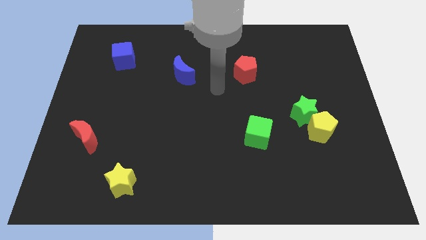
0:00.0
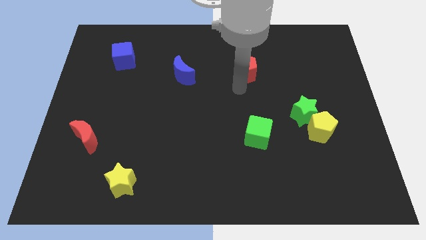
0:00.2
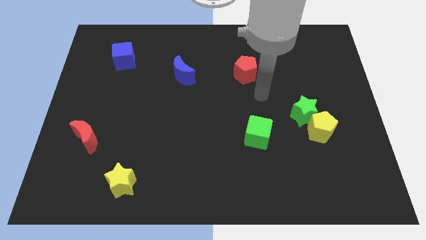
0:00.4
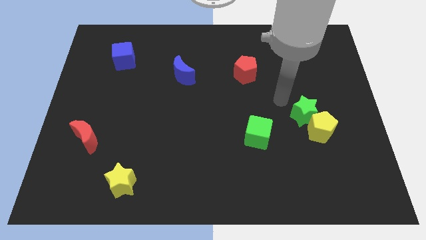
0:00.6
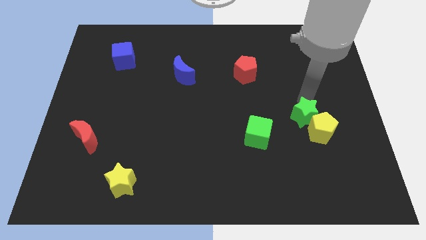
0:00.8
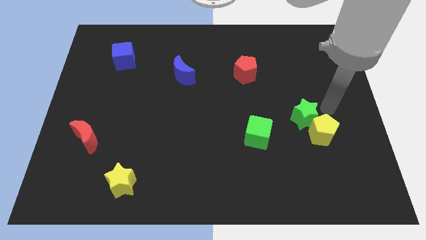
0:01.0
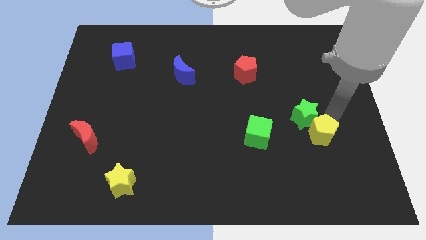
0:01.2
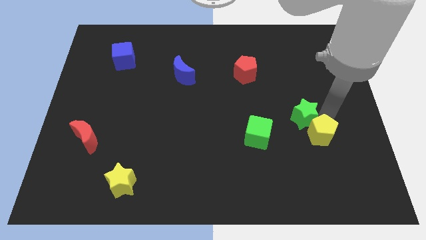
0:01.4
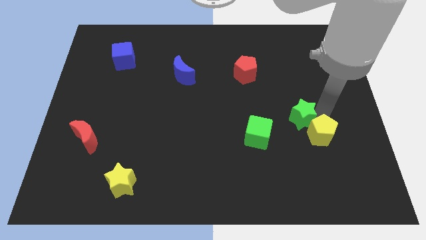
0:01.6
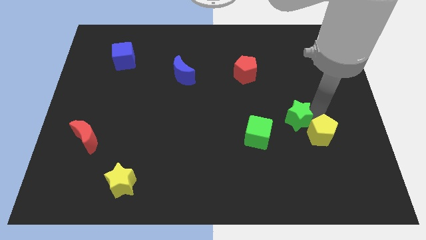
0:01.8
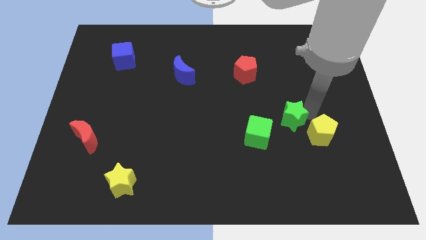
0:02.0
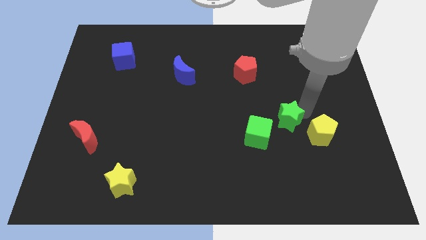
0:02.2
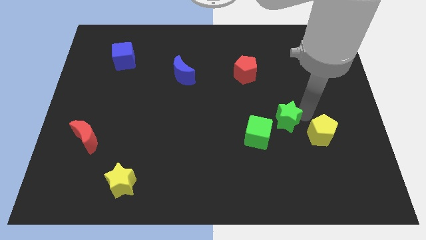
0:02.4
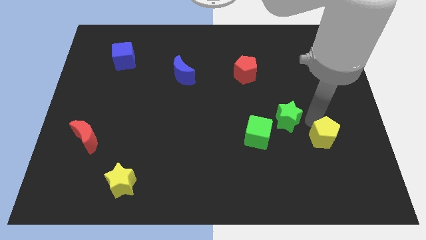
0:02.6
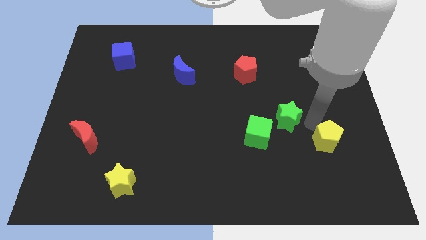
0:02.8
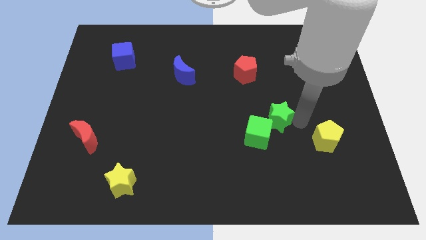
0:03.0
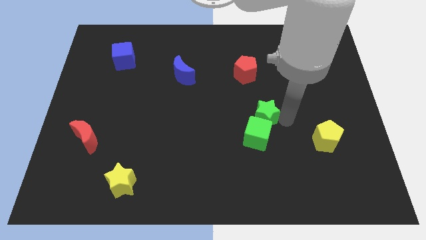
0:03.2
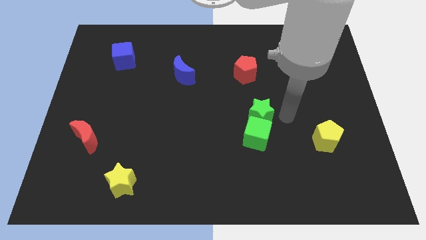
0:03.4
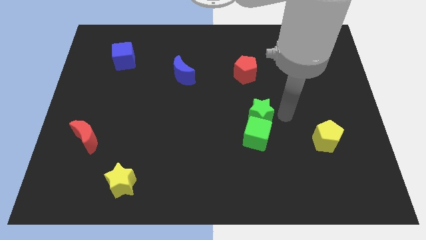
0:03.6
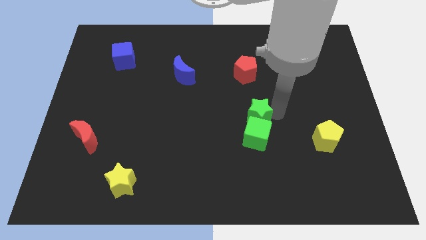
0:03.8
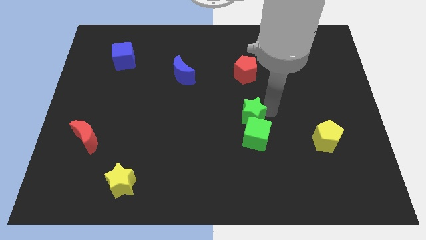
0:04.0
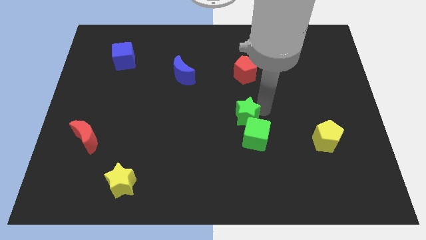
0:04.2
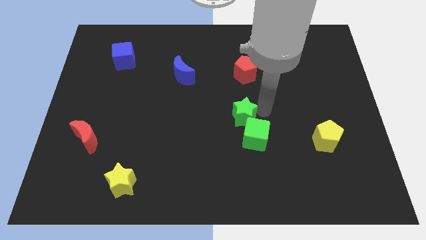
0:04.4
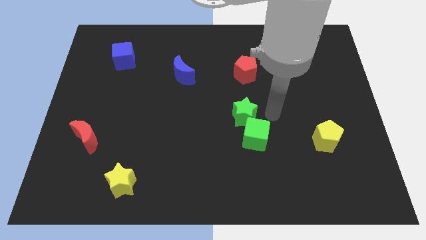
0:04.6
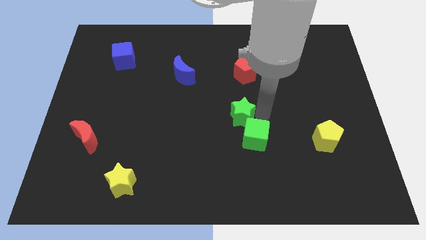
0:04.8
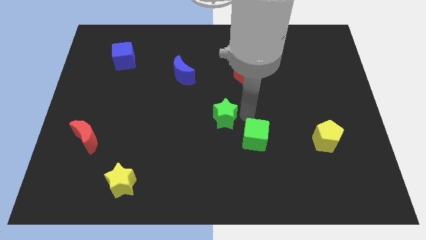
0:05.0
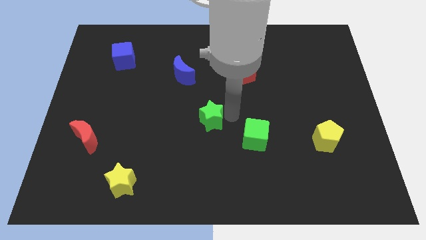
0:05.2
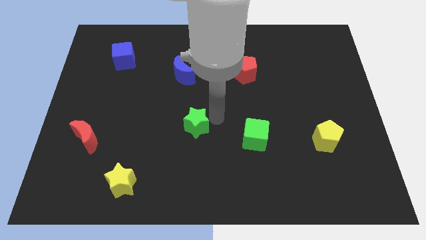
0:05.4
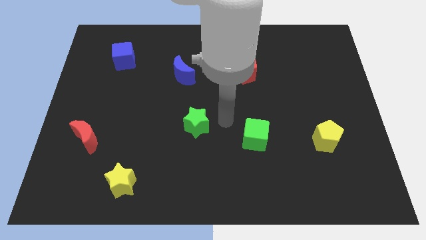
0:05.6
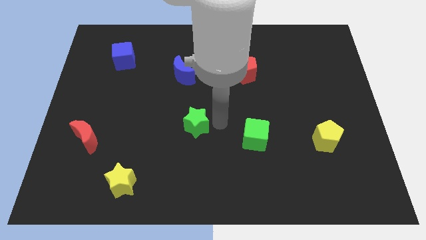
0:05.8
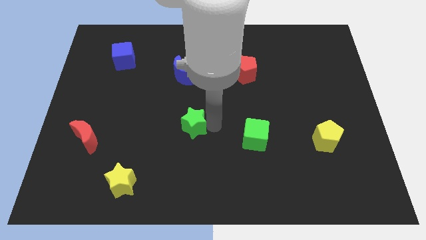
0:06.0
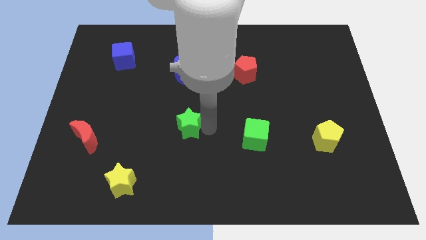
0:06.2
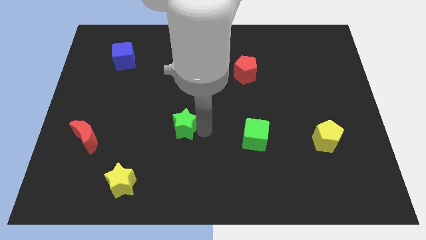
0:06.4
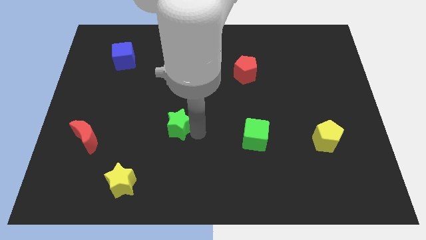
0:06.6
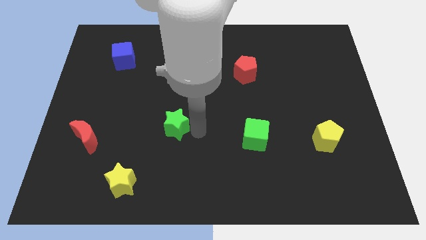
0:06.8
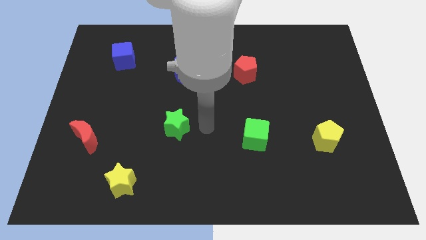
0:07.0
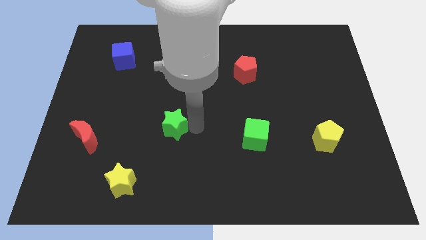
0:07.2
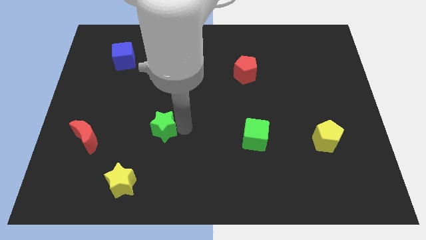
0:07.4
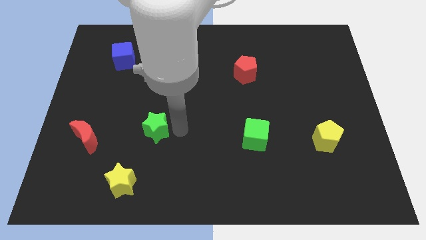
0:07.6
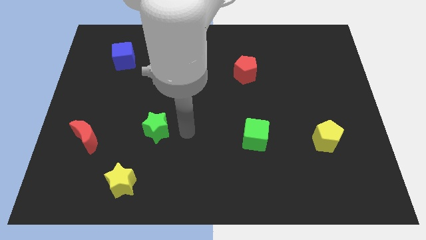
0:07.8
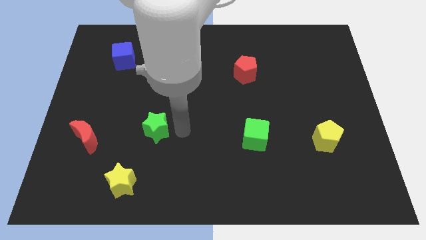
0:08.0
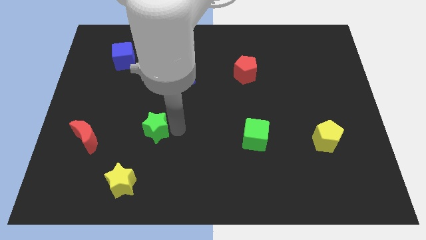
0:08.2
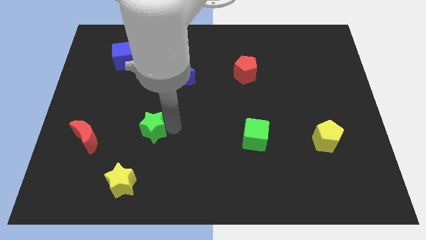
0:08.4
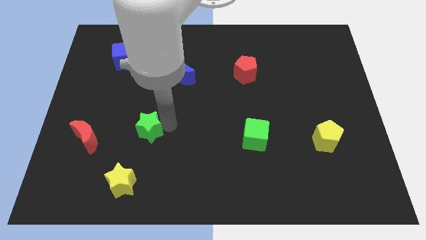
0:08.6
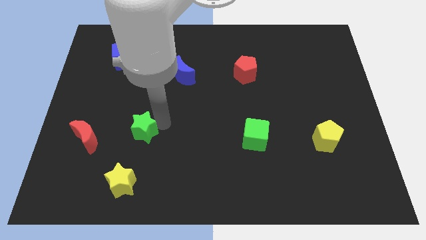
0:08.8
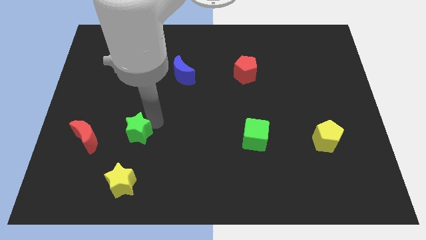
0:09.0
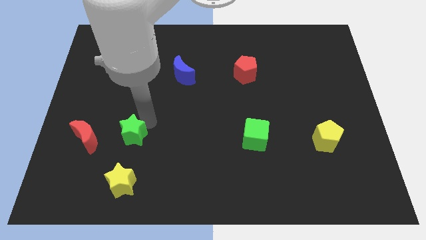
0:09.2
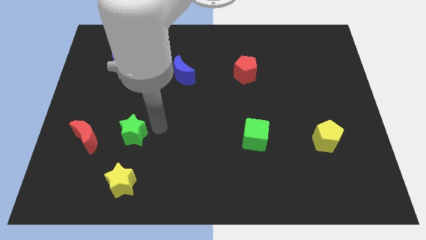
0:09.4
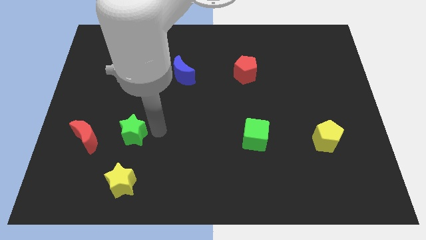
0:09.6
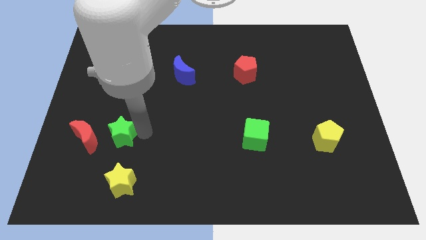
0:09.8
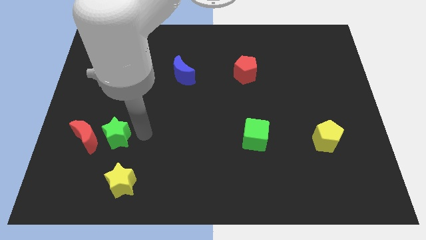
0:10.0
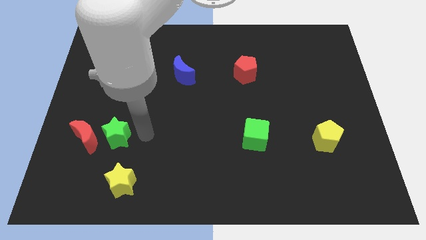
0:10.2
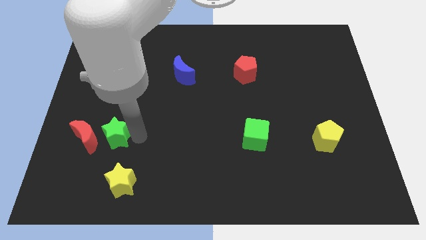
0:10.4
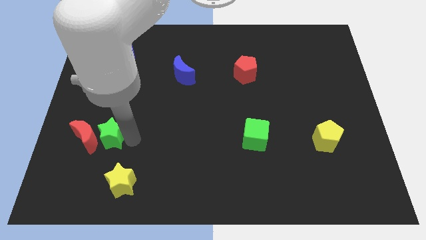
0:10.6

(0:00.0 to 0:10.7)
slide the green star towards the red moon

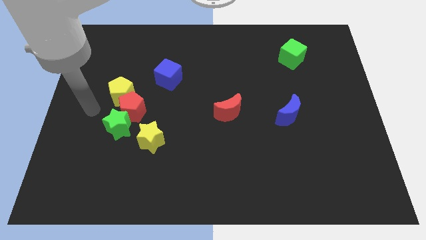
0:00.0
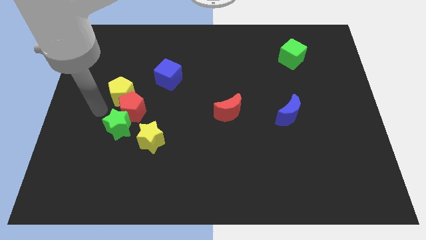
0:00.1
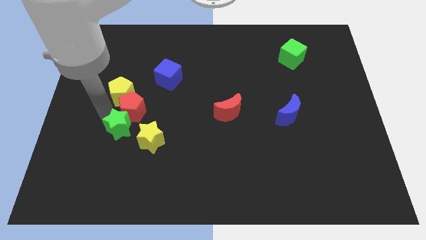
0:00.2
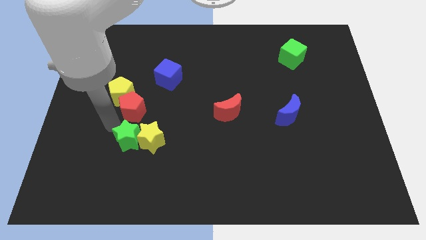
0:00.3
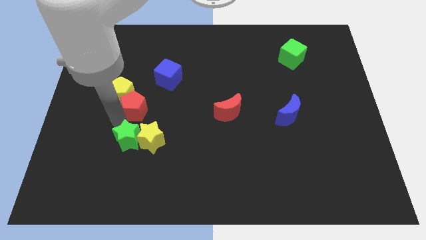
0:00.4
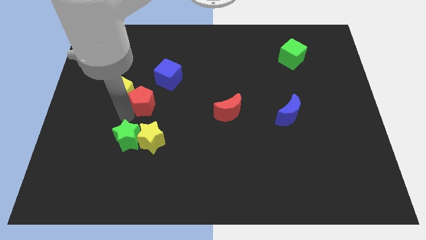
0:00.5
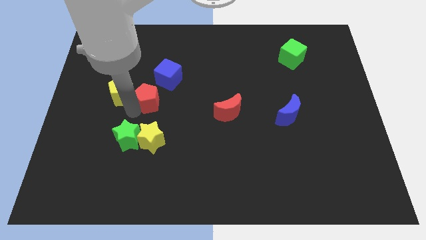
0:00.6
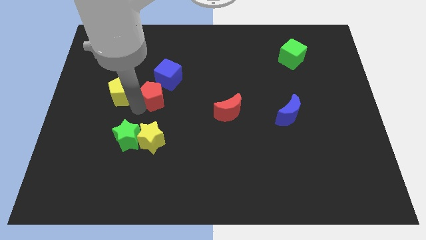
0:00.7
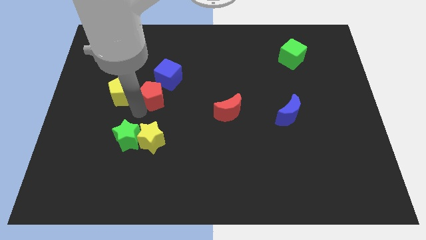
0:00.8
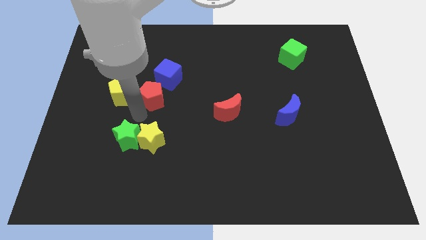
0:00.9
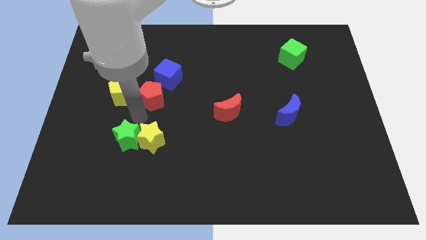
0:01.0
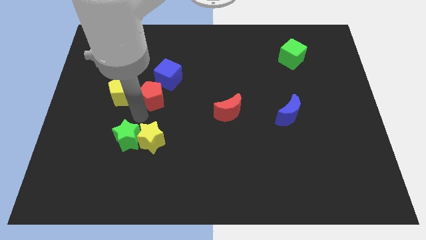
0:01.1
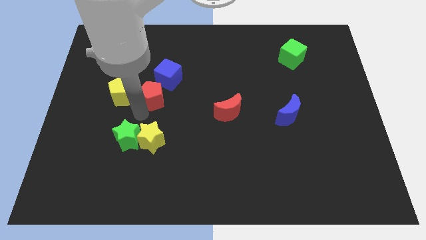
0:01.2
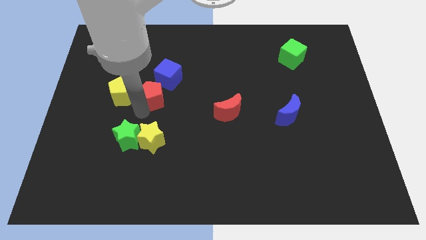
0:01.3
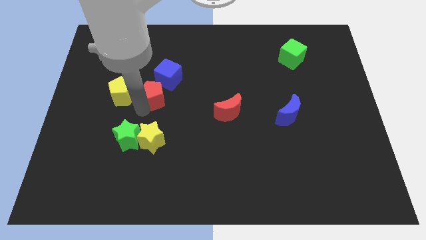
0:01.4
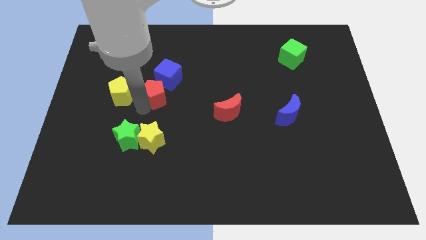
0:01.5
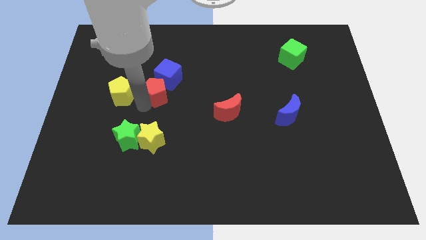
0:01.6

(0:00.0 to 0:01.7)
put the red pentagon next to the blue cube

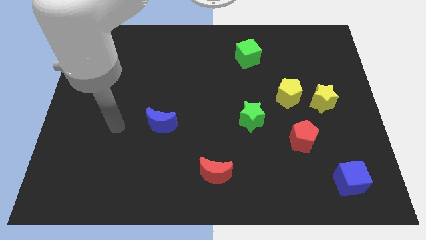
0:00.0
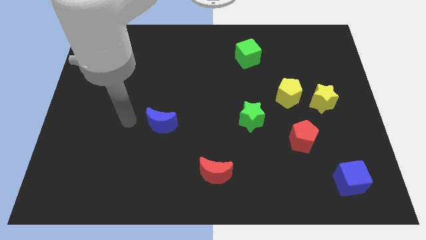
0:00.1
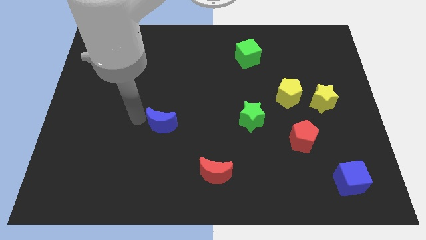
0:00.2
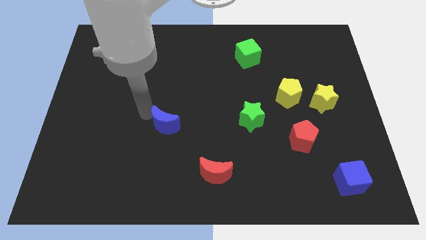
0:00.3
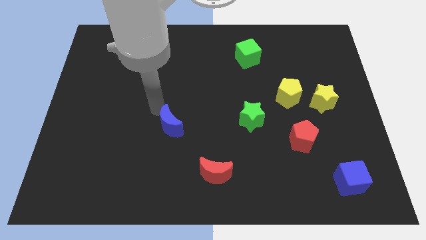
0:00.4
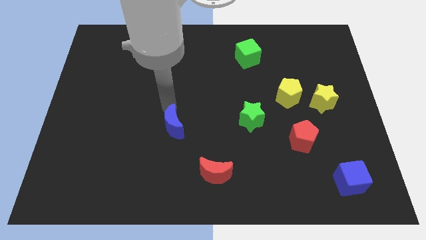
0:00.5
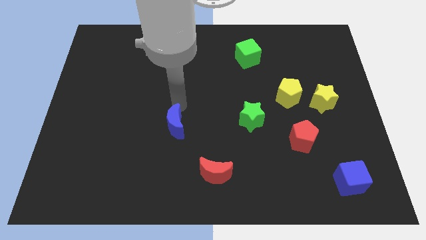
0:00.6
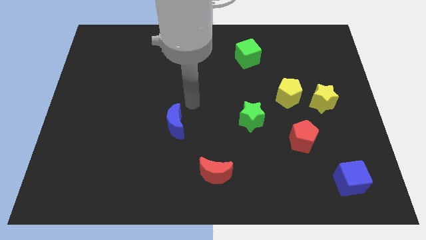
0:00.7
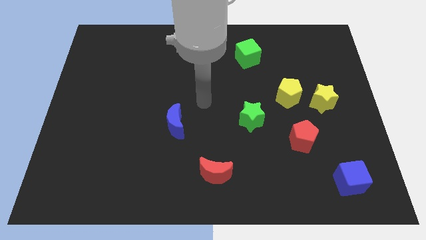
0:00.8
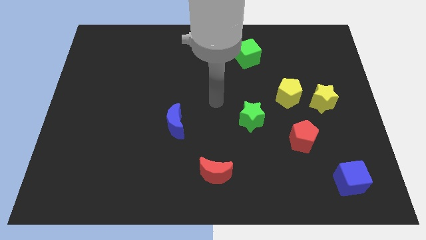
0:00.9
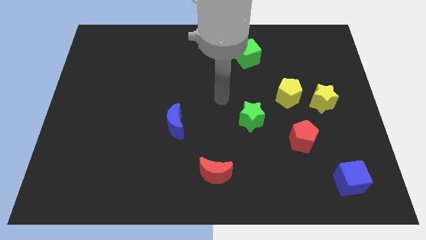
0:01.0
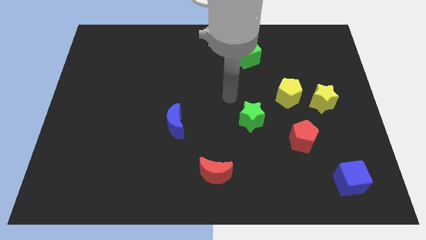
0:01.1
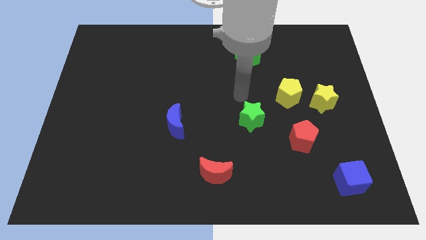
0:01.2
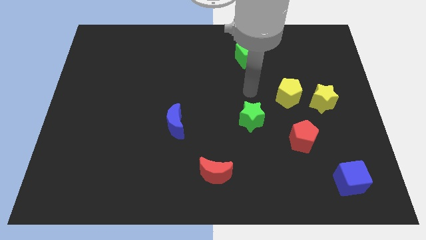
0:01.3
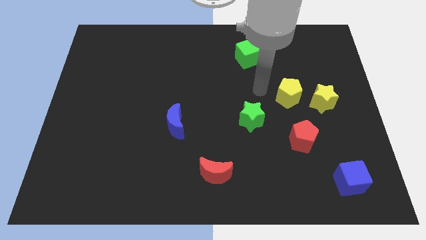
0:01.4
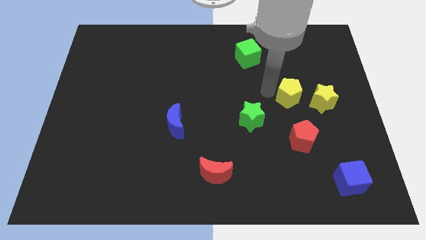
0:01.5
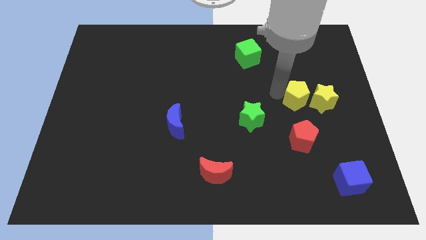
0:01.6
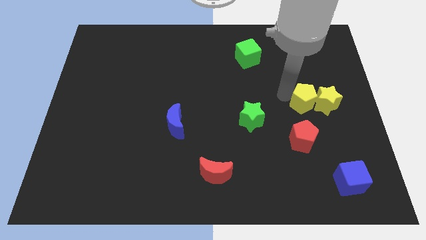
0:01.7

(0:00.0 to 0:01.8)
put the yellow pentagon next to the yellow star
